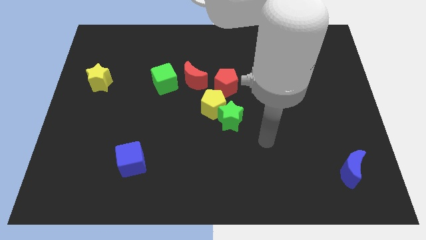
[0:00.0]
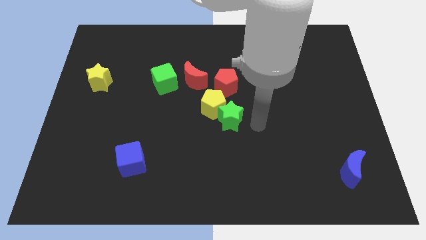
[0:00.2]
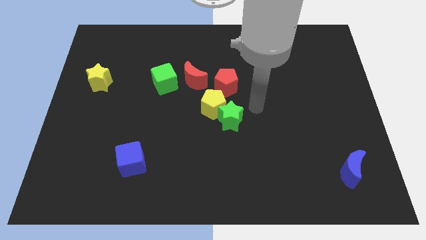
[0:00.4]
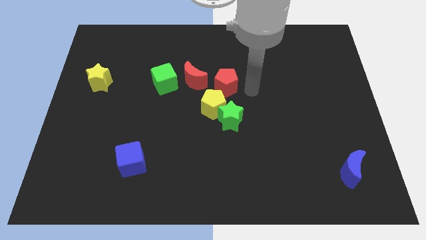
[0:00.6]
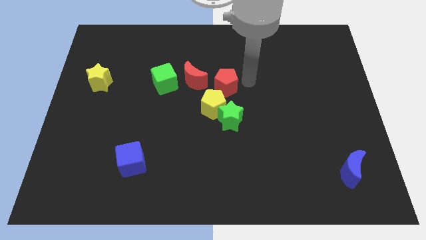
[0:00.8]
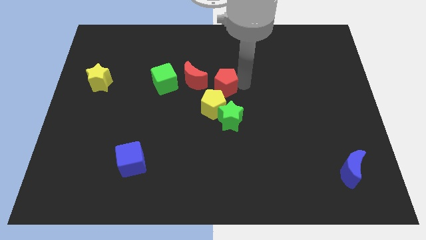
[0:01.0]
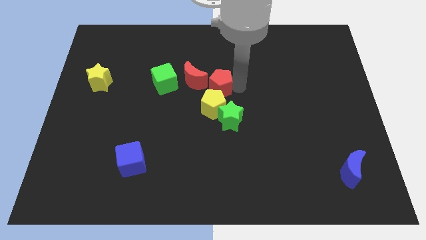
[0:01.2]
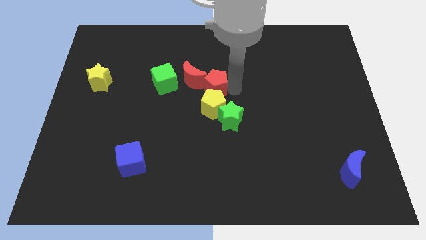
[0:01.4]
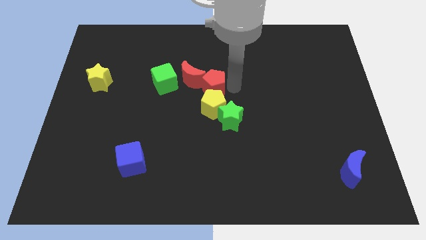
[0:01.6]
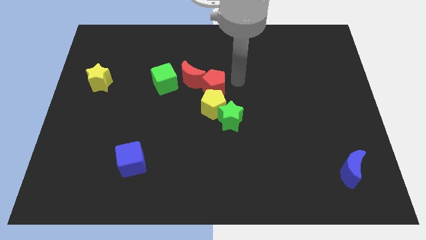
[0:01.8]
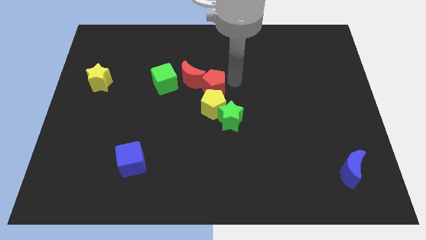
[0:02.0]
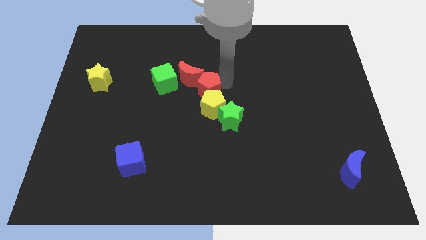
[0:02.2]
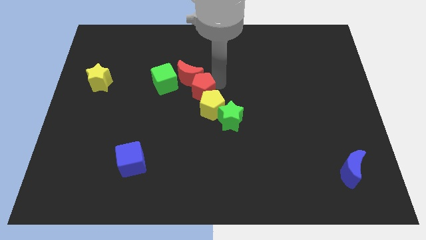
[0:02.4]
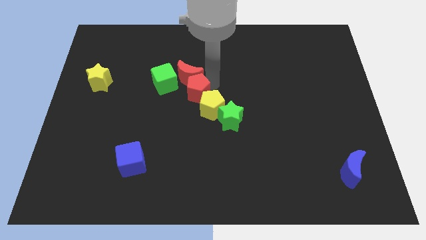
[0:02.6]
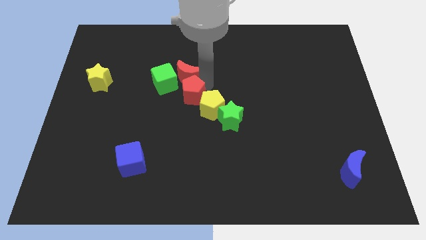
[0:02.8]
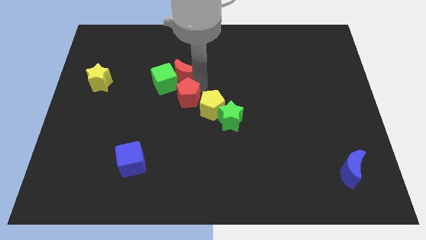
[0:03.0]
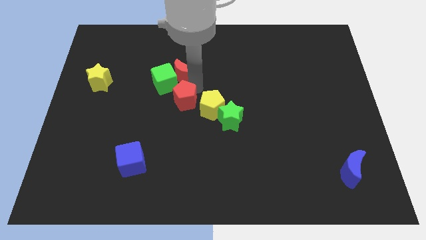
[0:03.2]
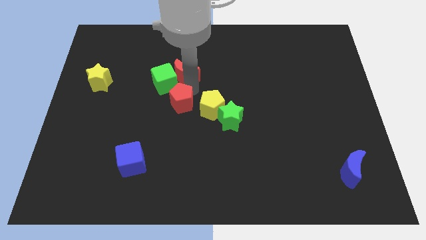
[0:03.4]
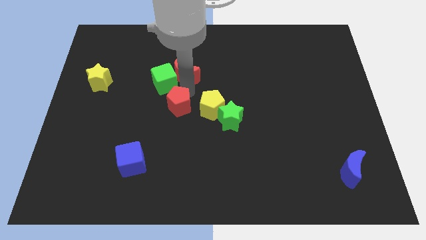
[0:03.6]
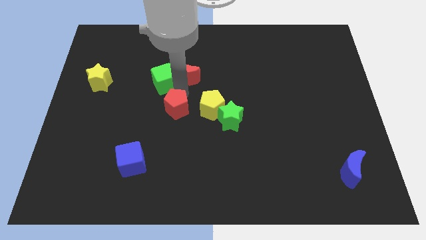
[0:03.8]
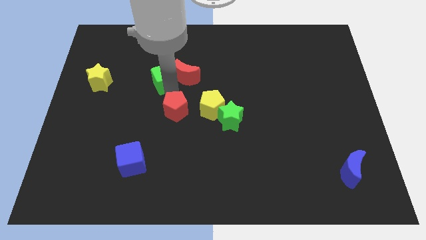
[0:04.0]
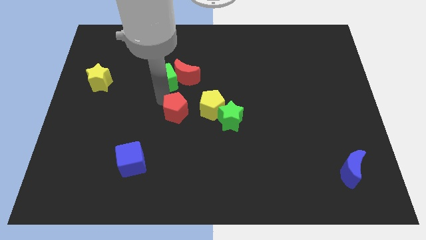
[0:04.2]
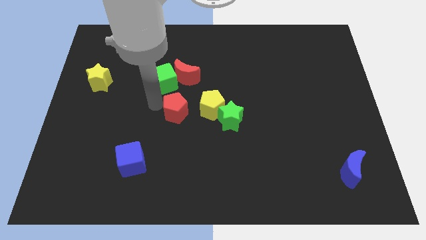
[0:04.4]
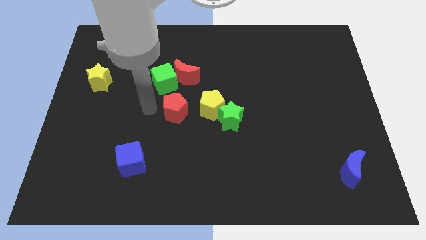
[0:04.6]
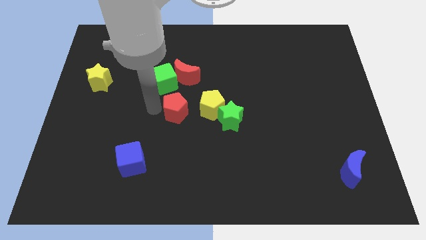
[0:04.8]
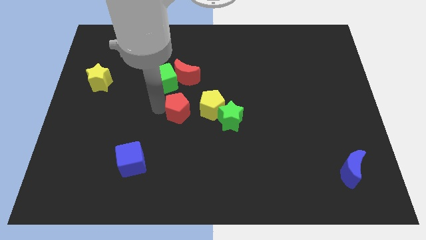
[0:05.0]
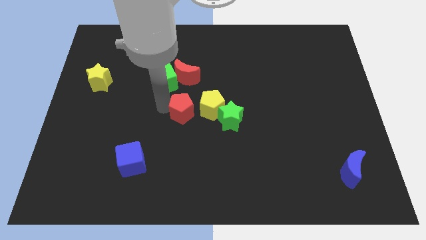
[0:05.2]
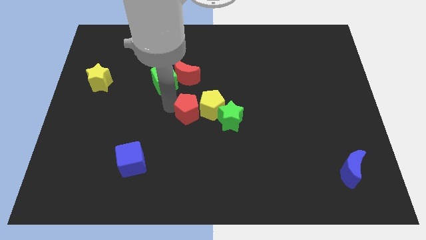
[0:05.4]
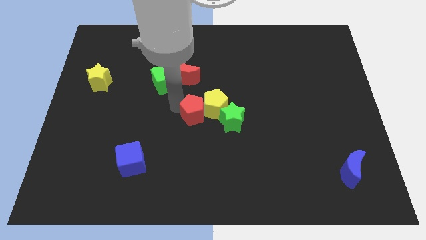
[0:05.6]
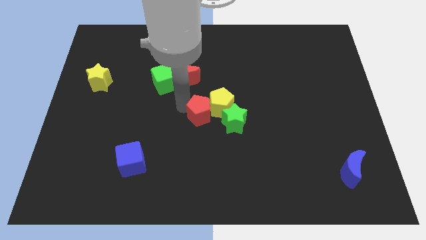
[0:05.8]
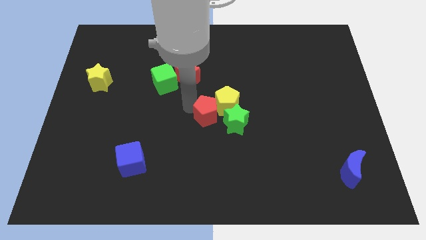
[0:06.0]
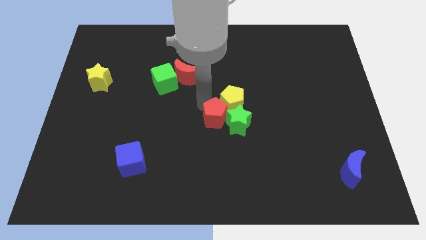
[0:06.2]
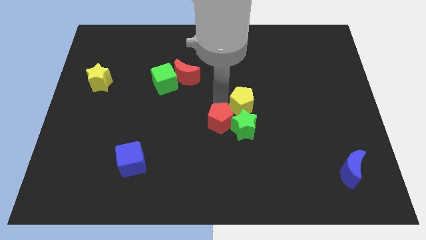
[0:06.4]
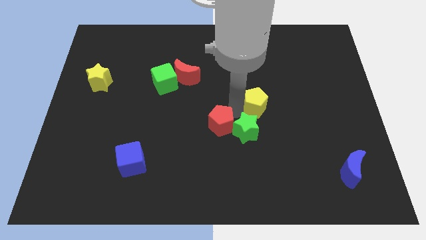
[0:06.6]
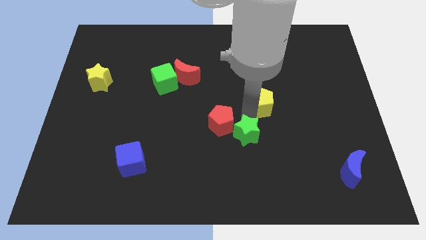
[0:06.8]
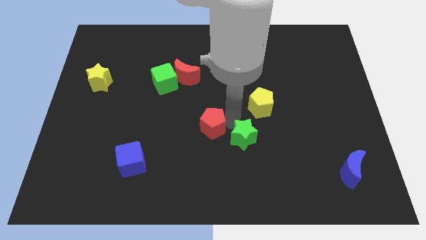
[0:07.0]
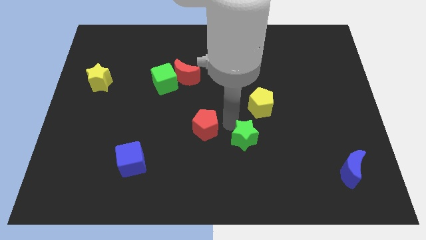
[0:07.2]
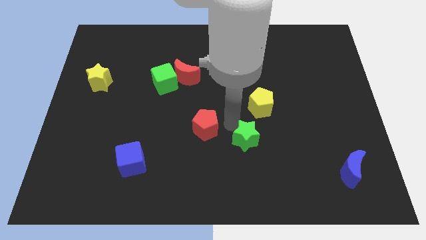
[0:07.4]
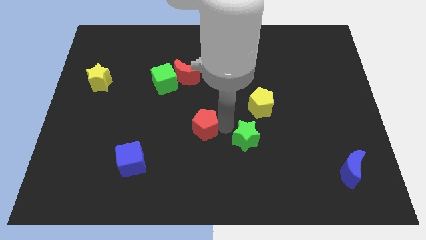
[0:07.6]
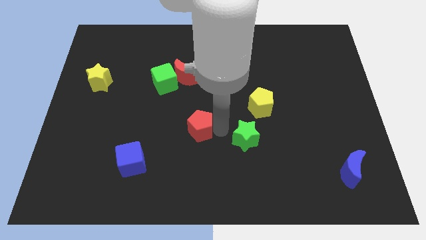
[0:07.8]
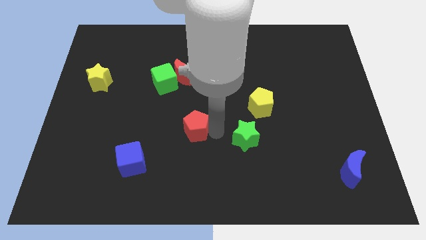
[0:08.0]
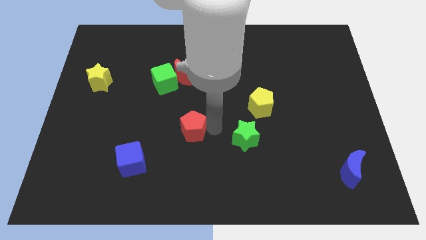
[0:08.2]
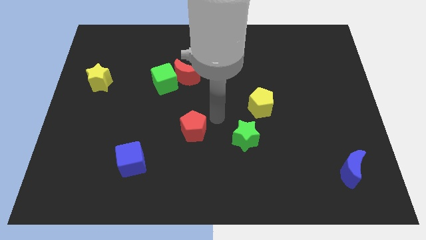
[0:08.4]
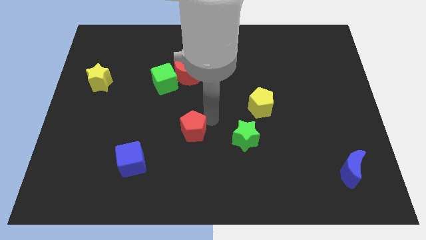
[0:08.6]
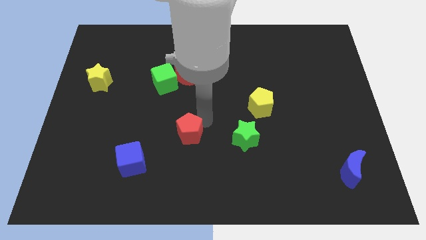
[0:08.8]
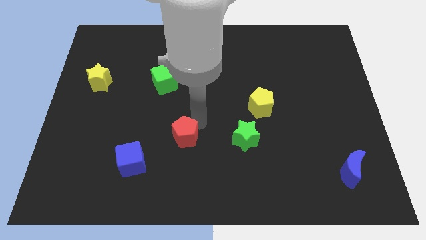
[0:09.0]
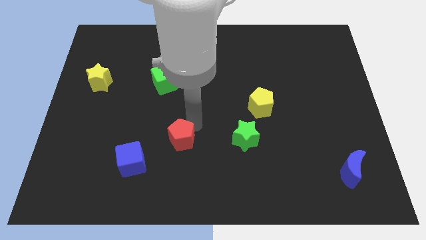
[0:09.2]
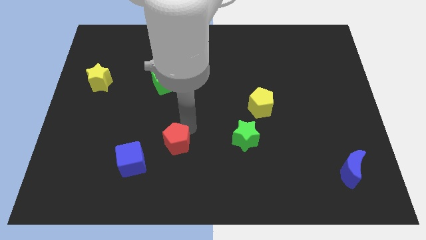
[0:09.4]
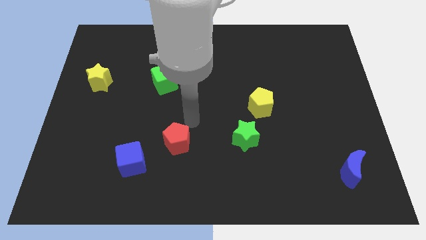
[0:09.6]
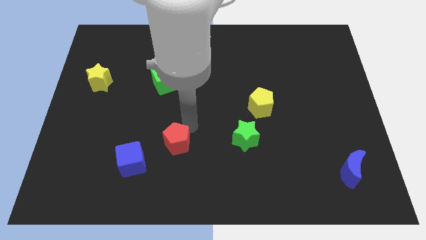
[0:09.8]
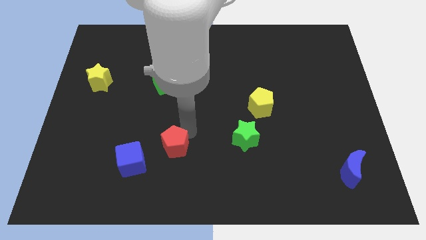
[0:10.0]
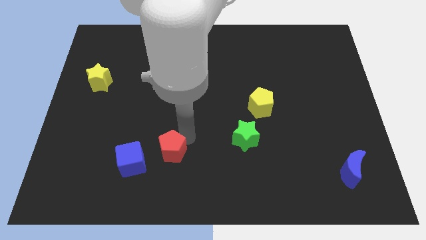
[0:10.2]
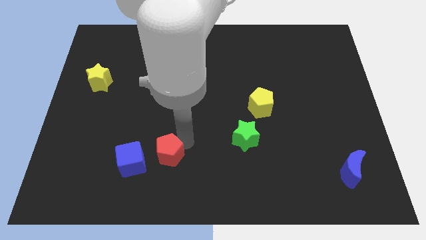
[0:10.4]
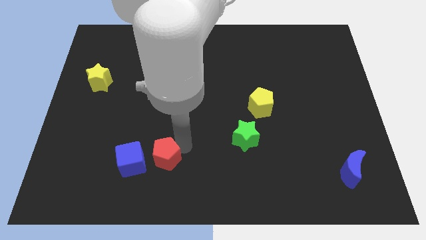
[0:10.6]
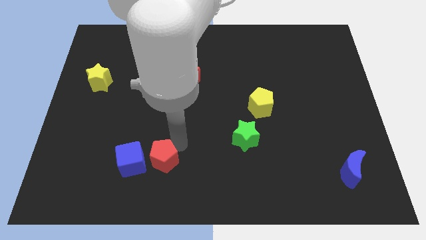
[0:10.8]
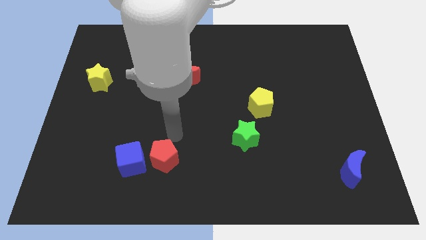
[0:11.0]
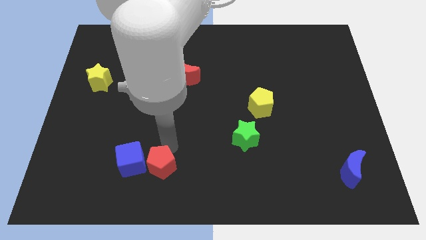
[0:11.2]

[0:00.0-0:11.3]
push the red pentagon to the bottom right of the blue cube

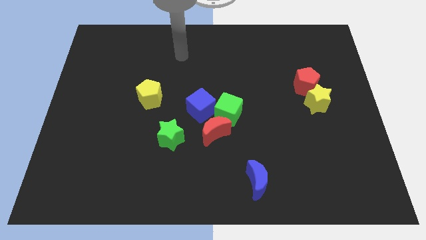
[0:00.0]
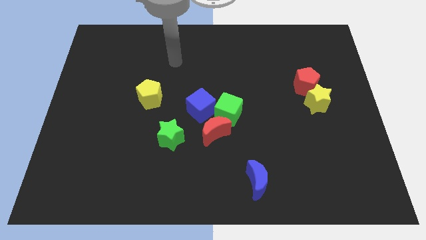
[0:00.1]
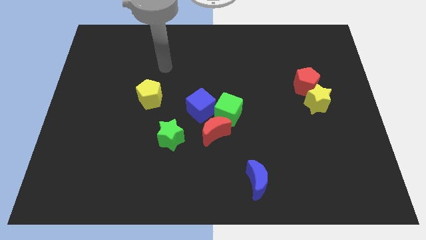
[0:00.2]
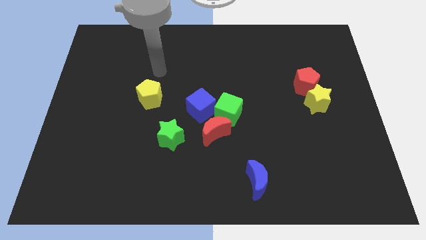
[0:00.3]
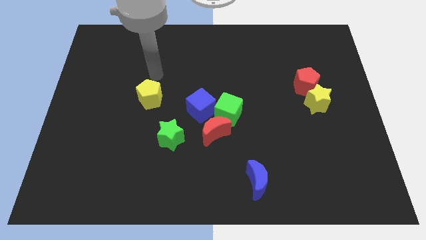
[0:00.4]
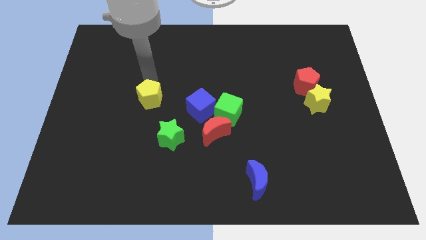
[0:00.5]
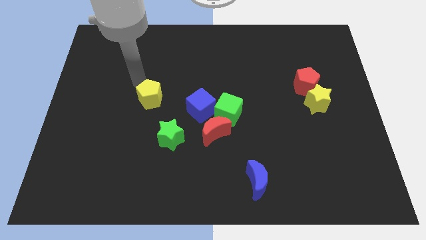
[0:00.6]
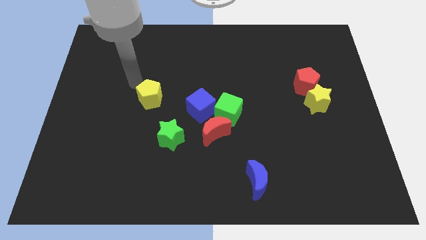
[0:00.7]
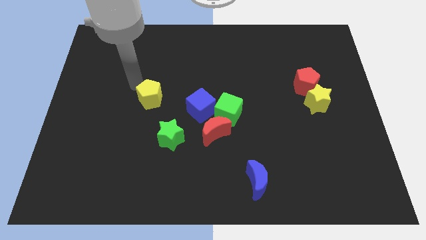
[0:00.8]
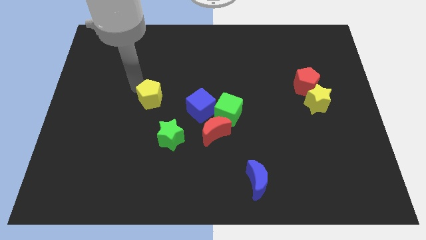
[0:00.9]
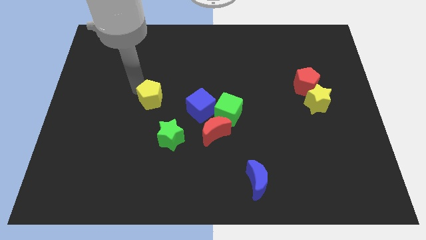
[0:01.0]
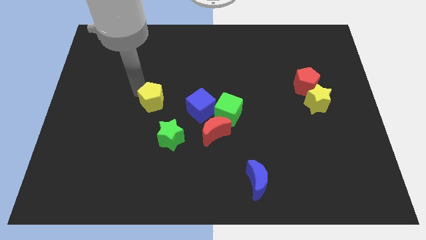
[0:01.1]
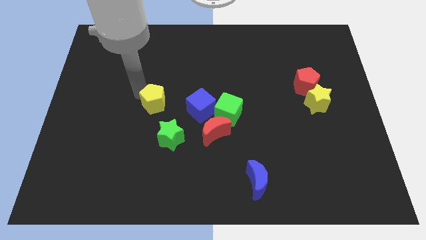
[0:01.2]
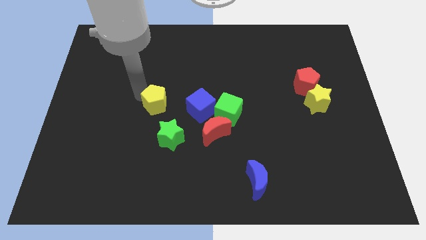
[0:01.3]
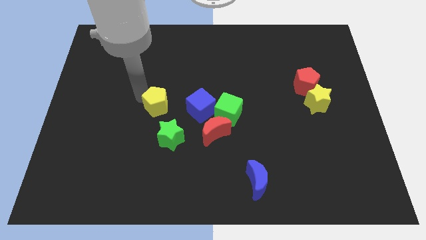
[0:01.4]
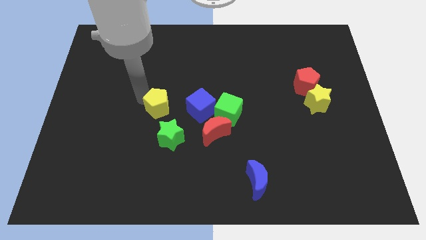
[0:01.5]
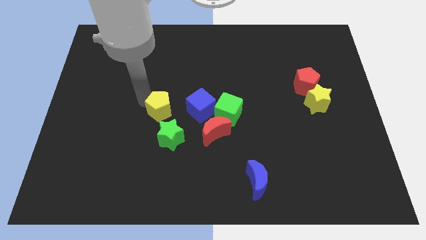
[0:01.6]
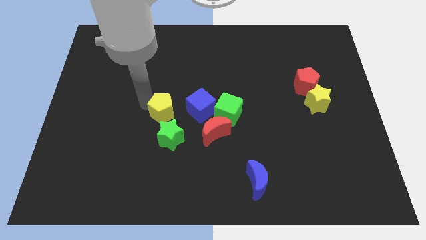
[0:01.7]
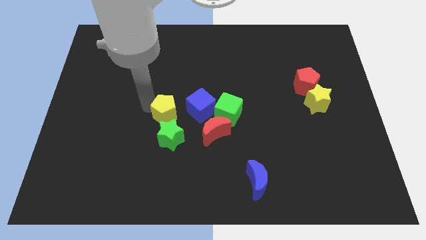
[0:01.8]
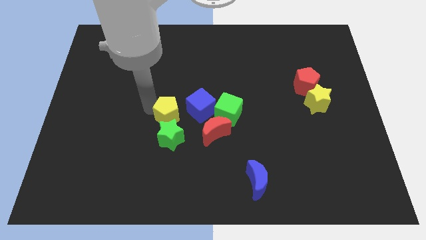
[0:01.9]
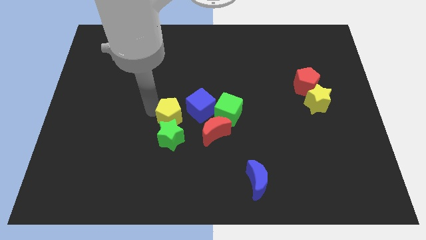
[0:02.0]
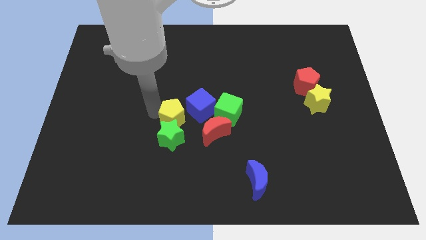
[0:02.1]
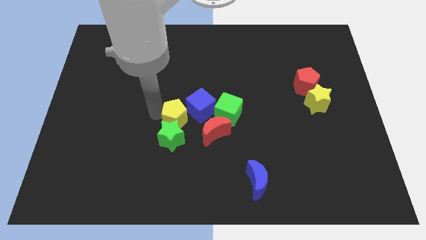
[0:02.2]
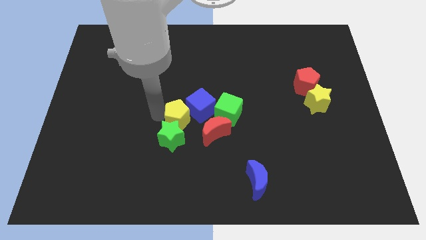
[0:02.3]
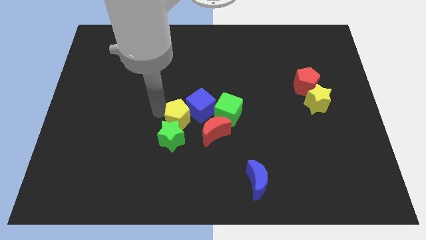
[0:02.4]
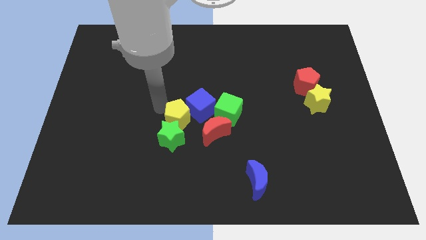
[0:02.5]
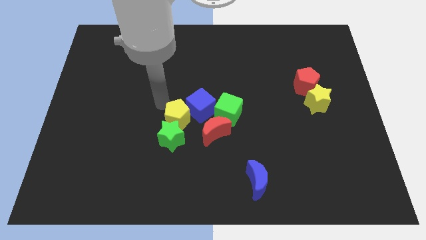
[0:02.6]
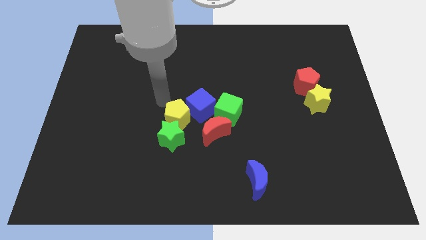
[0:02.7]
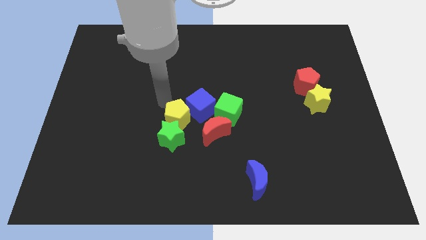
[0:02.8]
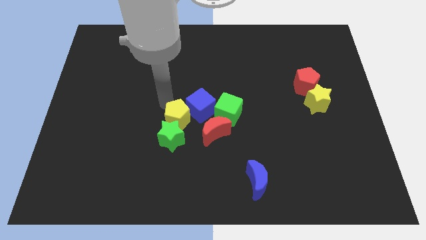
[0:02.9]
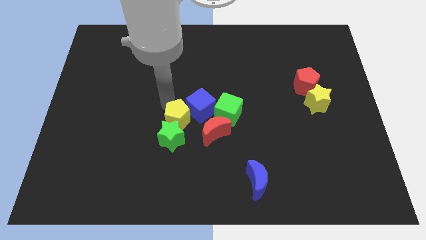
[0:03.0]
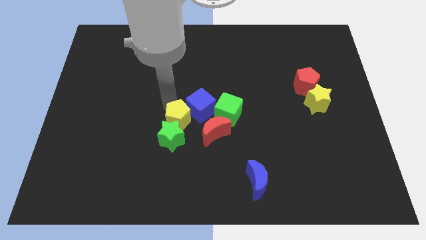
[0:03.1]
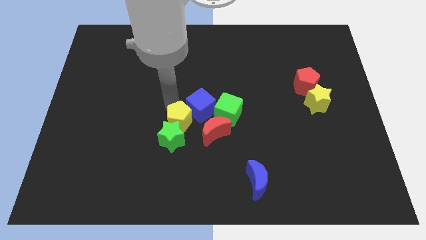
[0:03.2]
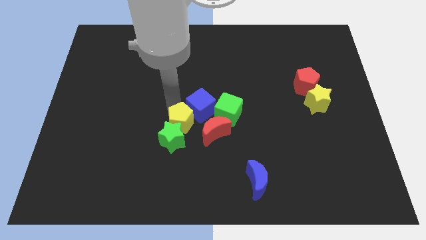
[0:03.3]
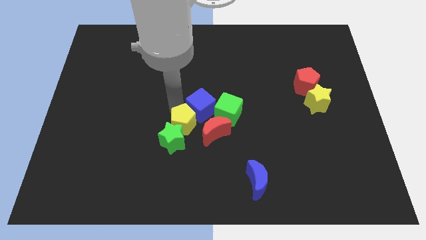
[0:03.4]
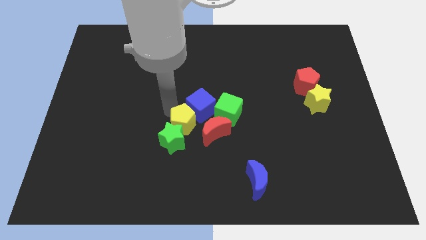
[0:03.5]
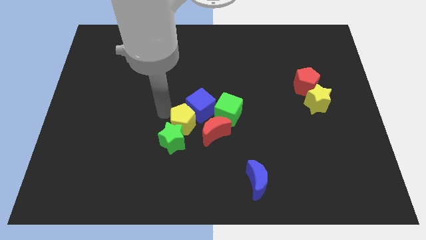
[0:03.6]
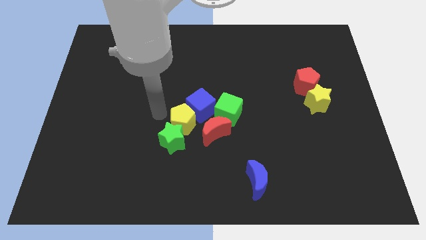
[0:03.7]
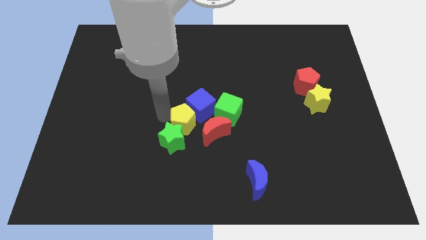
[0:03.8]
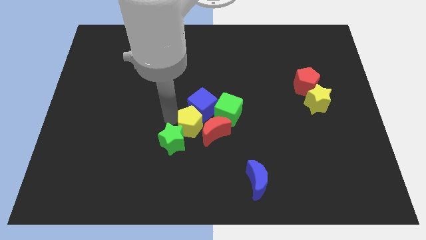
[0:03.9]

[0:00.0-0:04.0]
push the yellow pentagon to the bottom left side of the green cube
